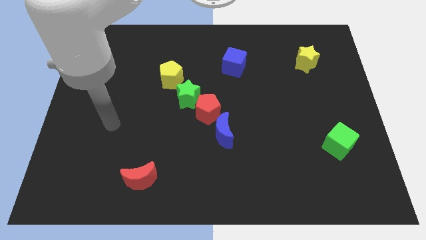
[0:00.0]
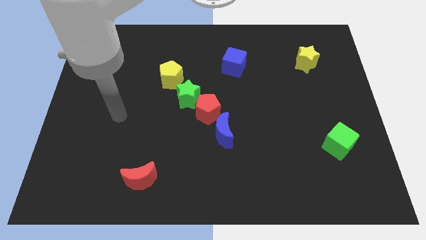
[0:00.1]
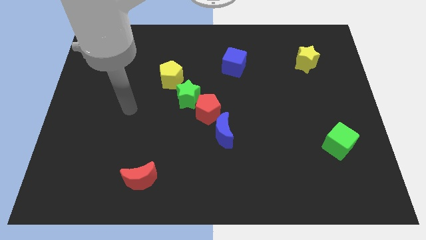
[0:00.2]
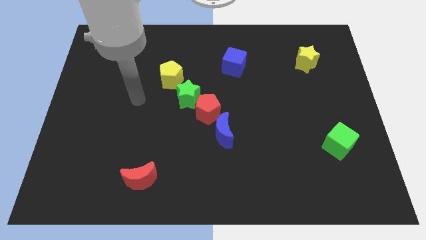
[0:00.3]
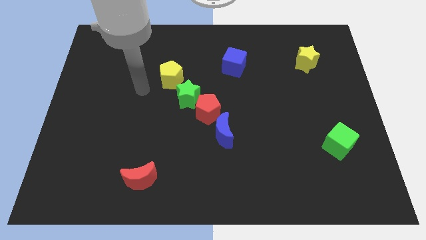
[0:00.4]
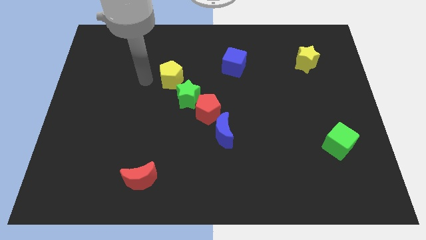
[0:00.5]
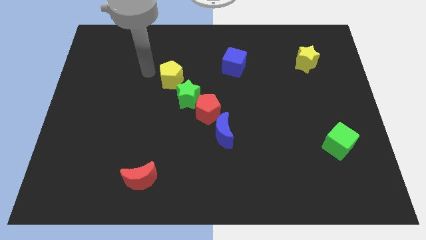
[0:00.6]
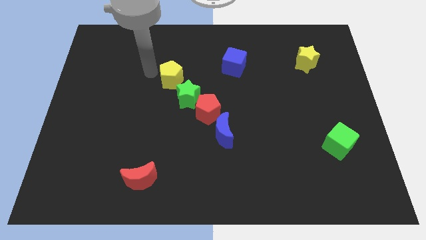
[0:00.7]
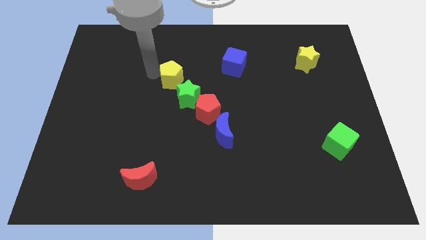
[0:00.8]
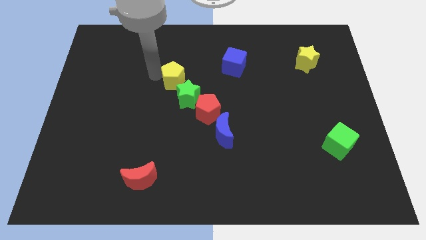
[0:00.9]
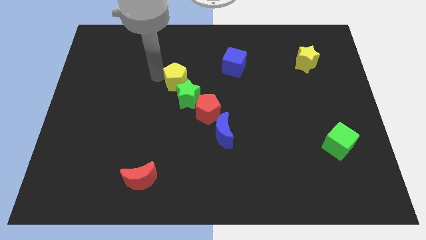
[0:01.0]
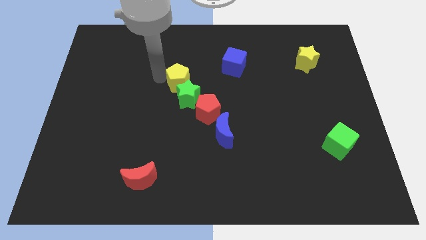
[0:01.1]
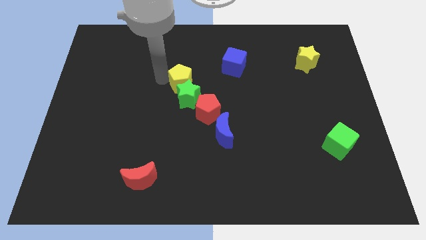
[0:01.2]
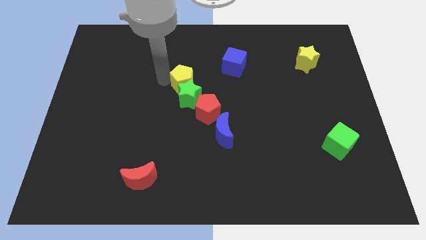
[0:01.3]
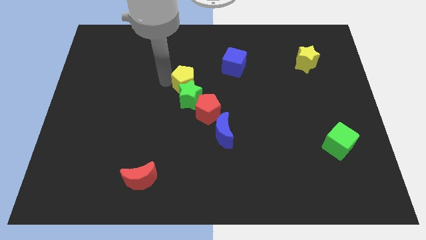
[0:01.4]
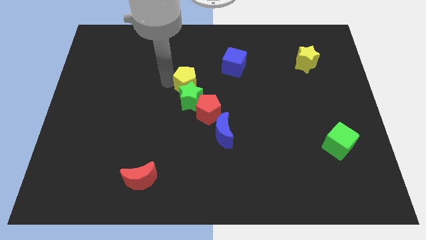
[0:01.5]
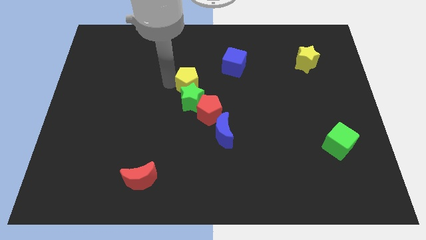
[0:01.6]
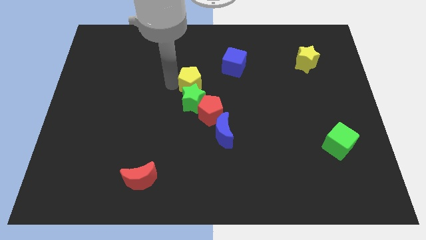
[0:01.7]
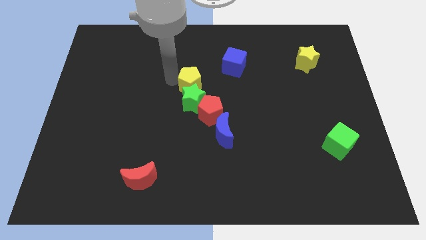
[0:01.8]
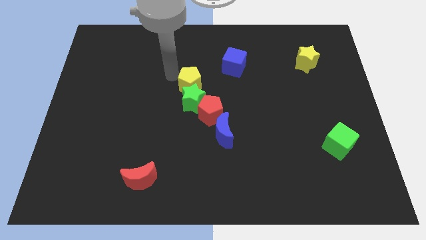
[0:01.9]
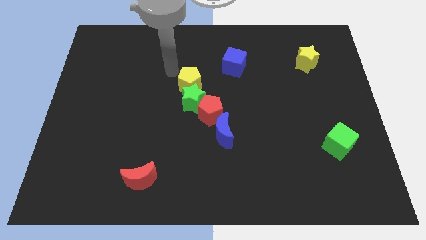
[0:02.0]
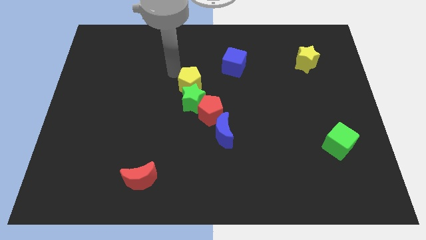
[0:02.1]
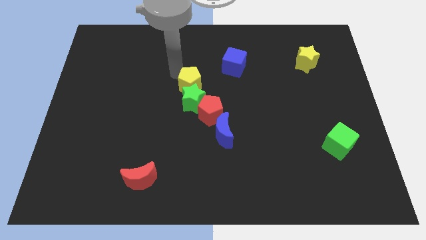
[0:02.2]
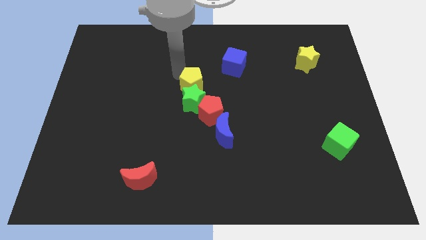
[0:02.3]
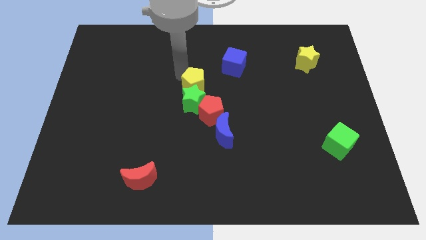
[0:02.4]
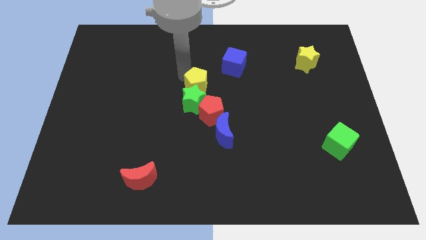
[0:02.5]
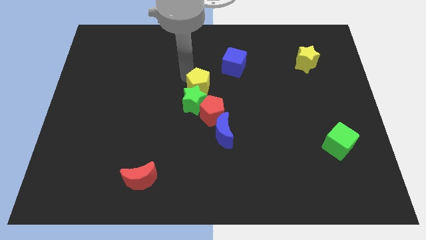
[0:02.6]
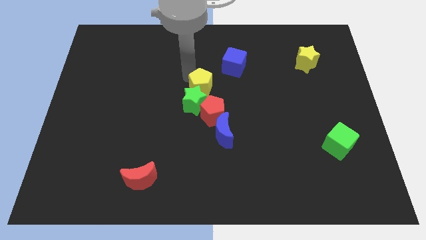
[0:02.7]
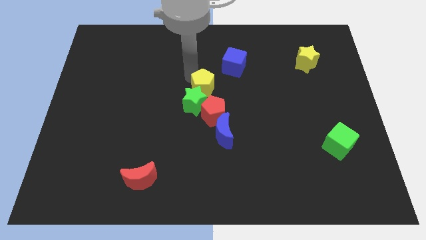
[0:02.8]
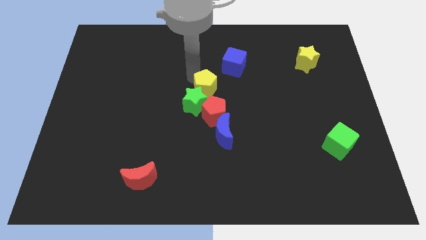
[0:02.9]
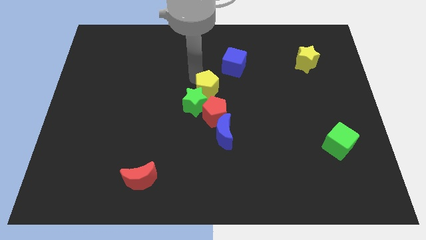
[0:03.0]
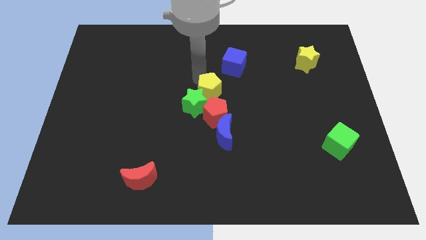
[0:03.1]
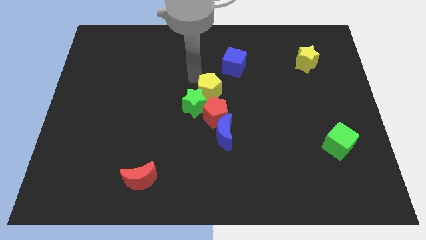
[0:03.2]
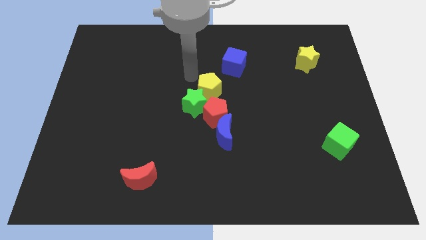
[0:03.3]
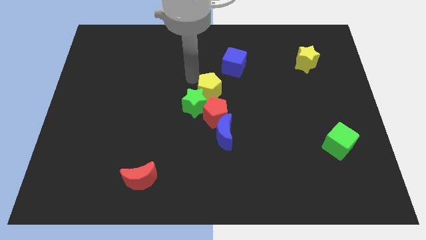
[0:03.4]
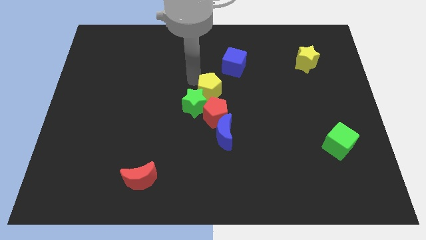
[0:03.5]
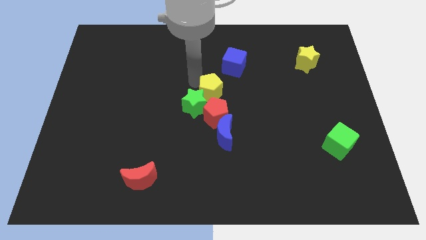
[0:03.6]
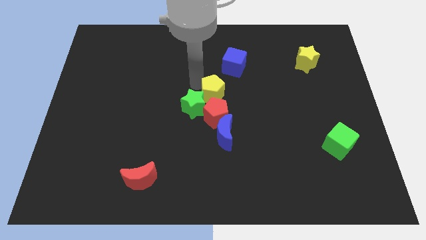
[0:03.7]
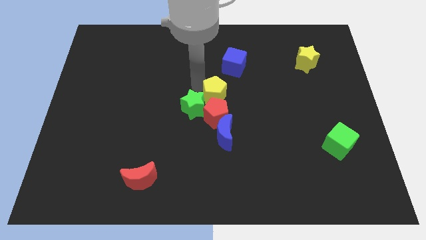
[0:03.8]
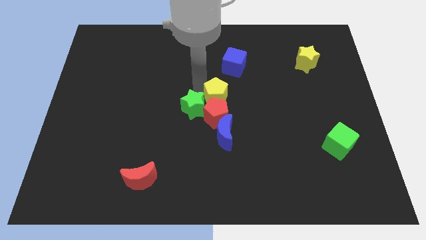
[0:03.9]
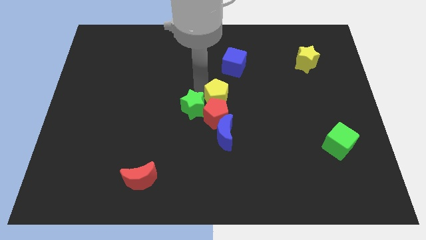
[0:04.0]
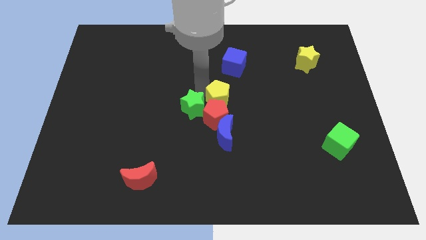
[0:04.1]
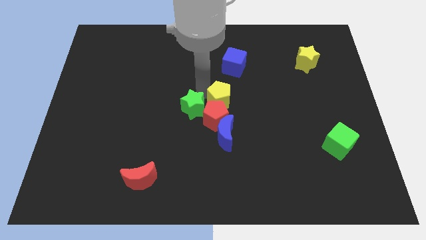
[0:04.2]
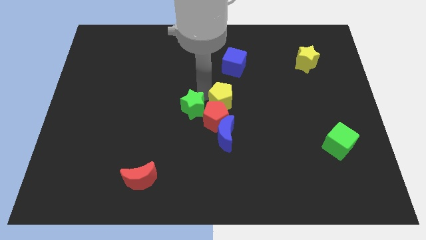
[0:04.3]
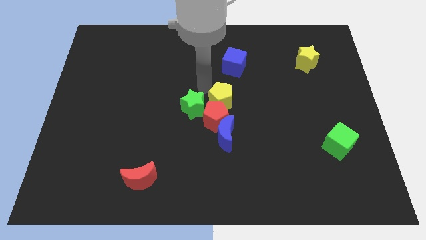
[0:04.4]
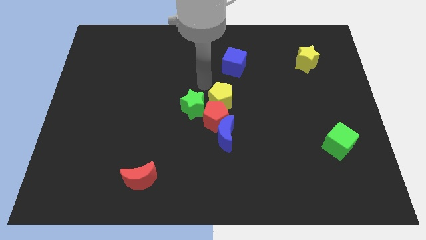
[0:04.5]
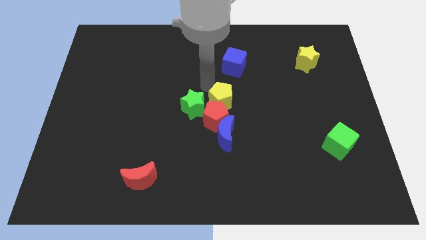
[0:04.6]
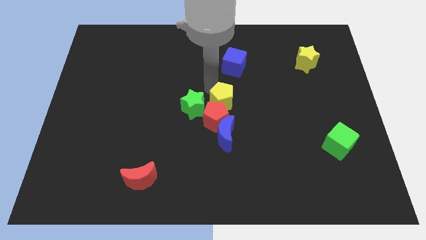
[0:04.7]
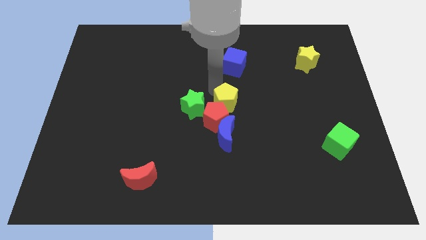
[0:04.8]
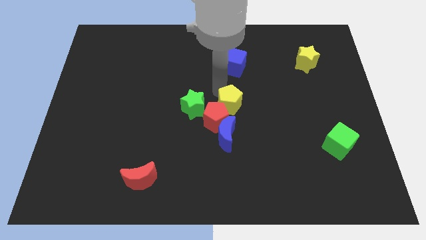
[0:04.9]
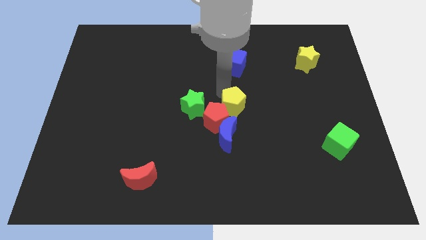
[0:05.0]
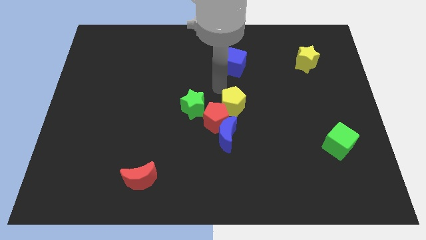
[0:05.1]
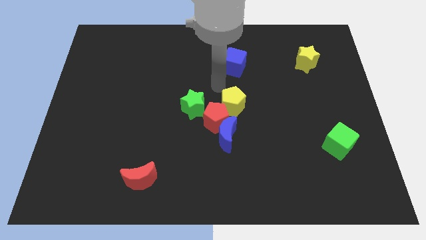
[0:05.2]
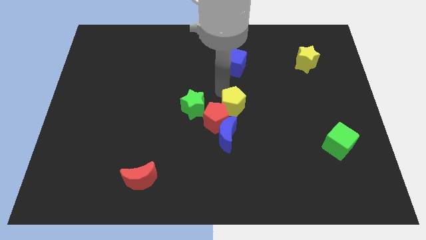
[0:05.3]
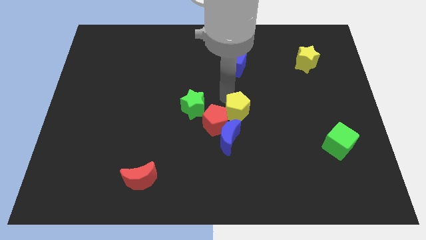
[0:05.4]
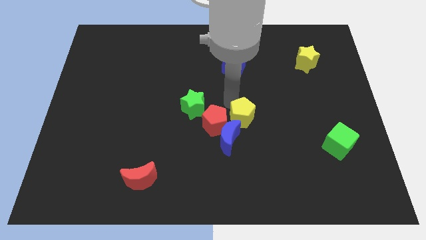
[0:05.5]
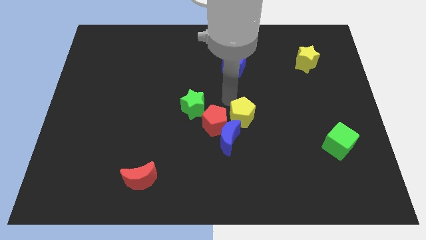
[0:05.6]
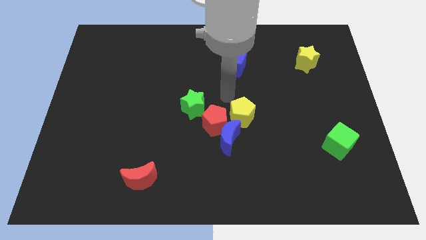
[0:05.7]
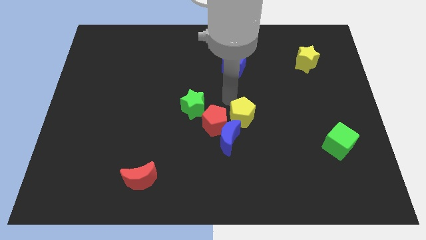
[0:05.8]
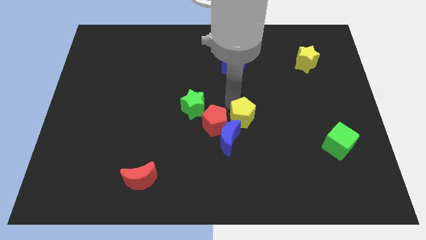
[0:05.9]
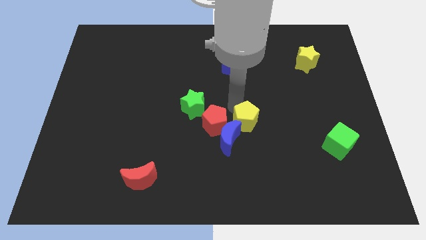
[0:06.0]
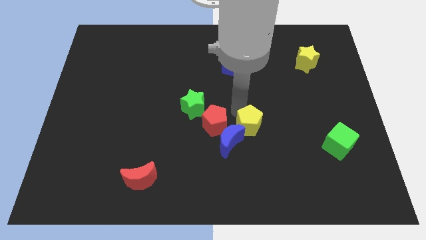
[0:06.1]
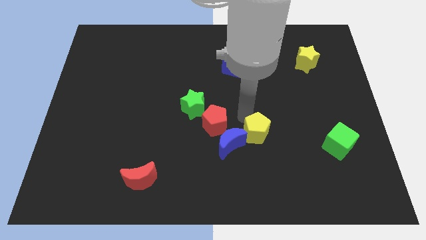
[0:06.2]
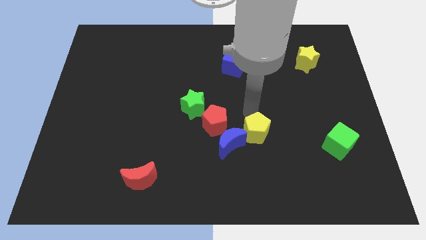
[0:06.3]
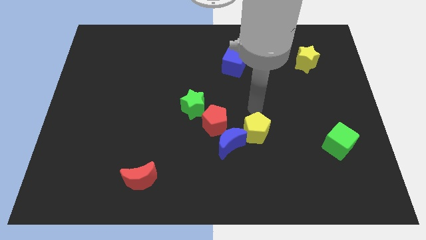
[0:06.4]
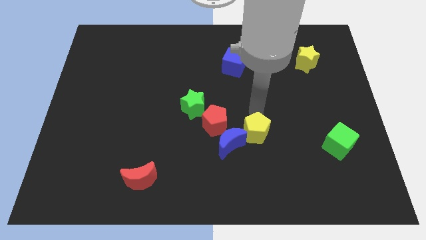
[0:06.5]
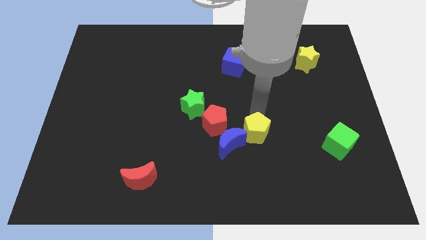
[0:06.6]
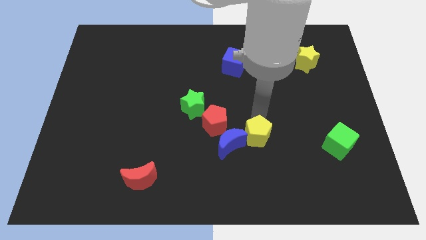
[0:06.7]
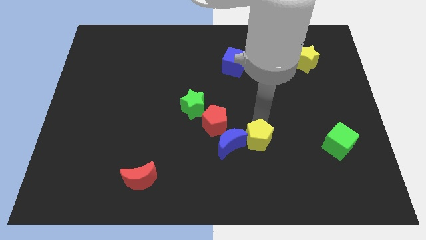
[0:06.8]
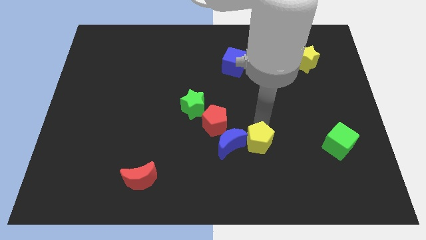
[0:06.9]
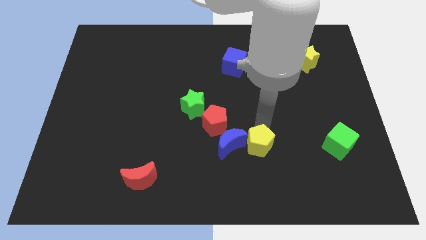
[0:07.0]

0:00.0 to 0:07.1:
put the yellow pentagon diagonally down and to the right of the blue moon

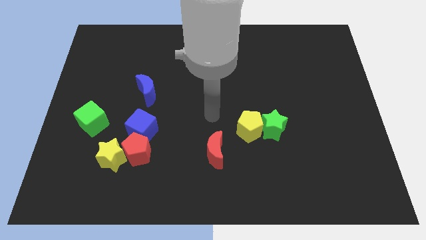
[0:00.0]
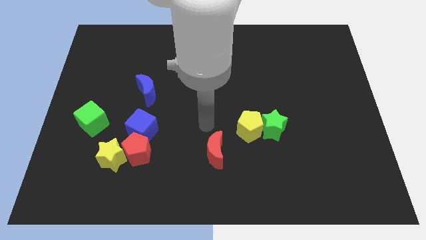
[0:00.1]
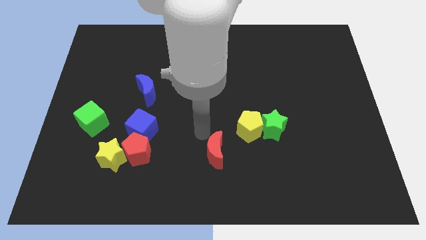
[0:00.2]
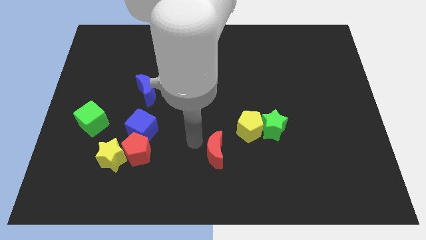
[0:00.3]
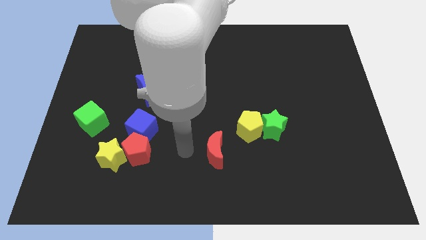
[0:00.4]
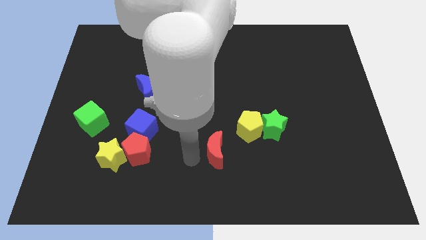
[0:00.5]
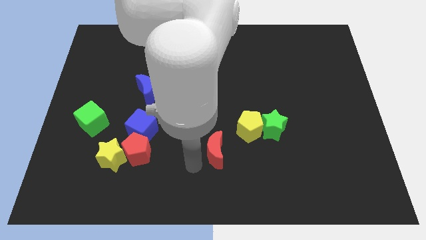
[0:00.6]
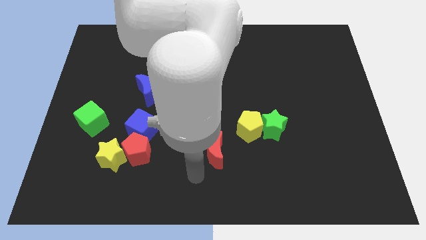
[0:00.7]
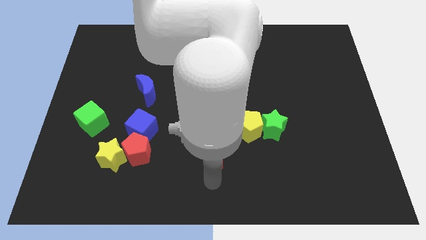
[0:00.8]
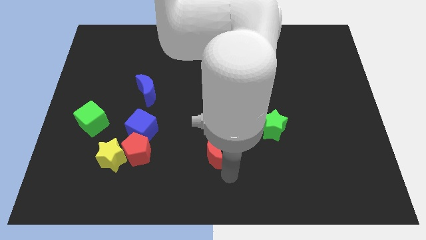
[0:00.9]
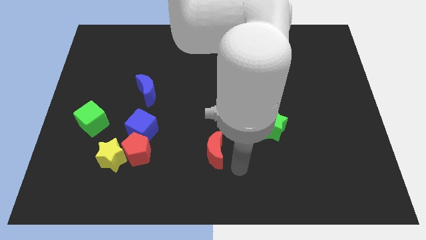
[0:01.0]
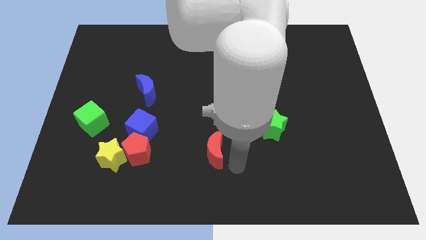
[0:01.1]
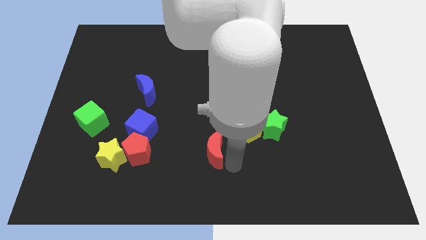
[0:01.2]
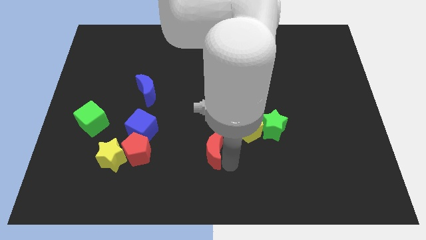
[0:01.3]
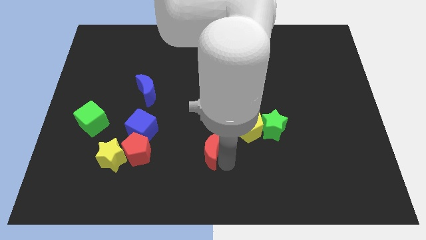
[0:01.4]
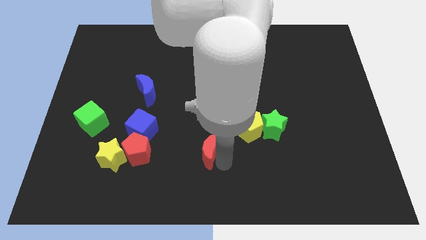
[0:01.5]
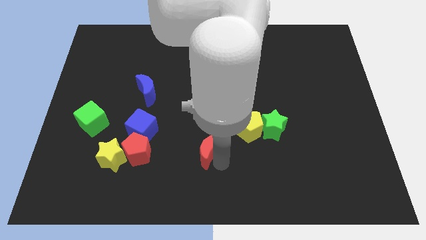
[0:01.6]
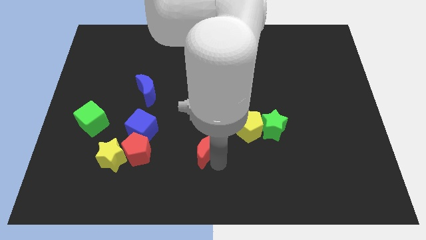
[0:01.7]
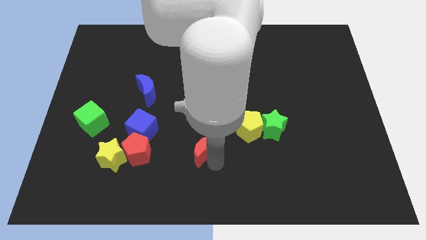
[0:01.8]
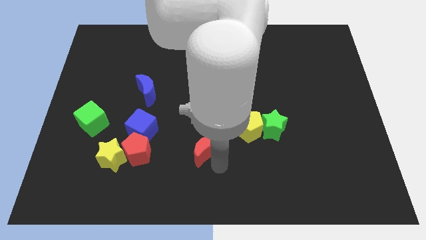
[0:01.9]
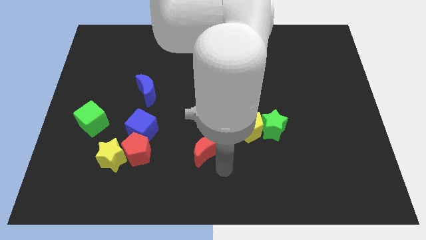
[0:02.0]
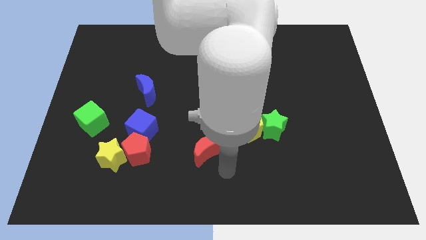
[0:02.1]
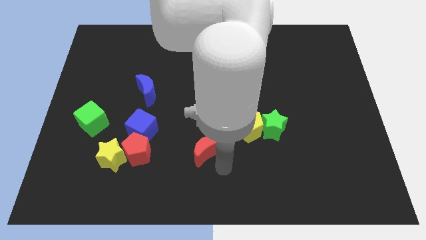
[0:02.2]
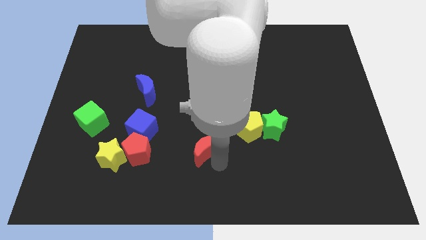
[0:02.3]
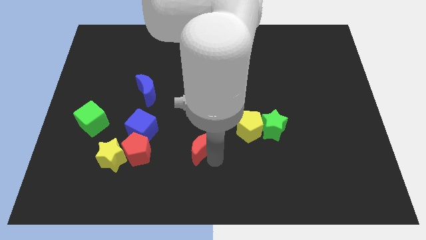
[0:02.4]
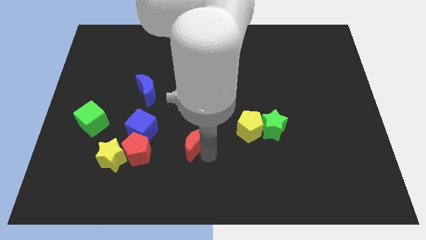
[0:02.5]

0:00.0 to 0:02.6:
slide the red moon to the right of the blue cube
